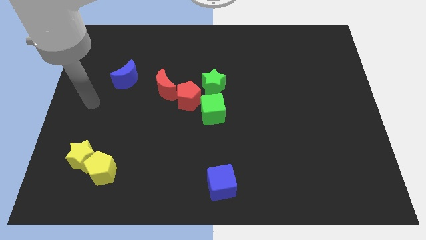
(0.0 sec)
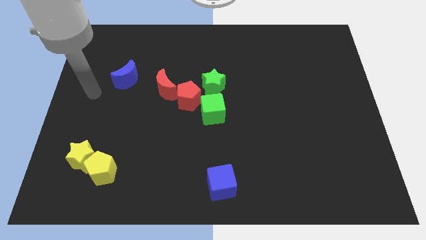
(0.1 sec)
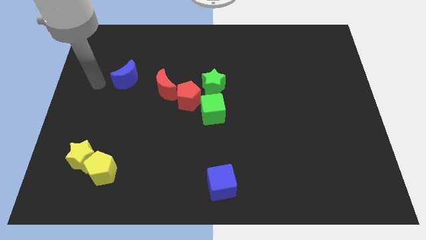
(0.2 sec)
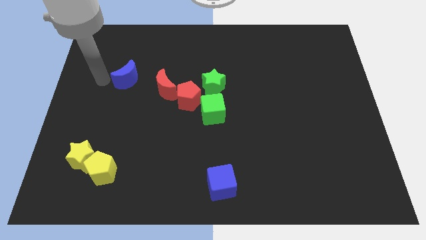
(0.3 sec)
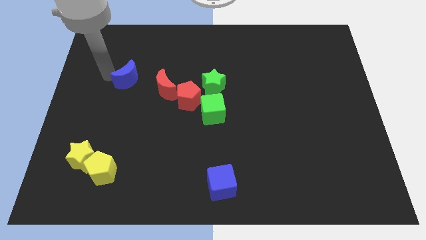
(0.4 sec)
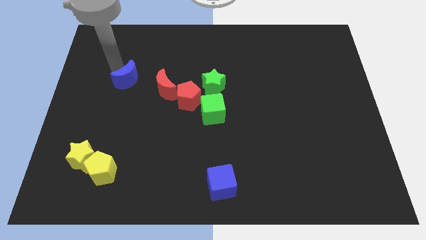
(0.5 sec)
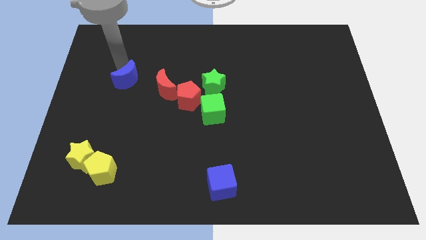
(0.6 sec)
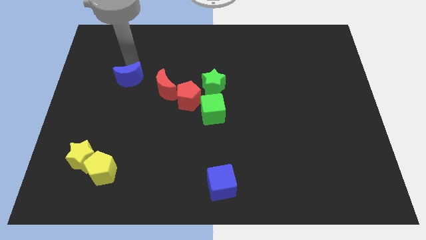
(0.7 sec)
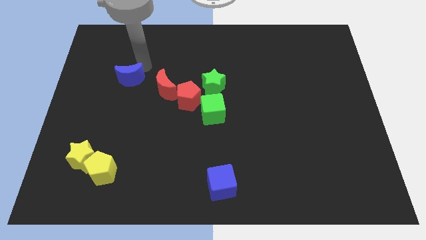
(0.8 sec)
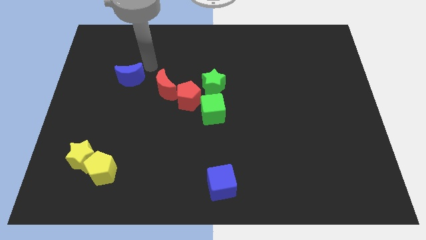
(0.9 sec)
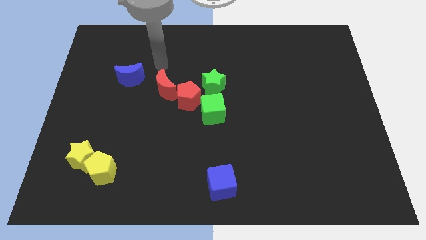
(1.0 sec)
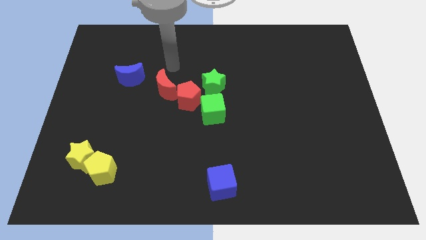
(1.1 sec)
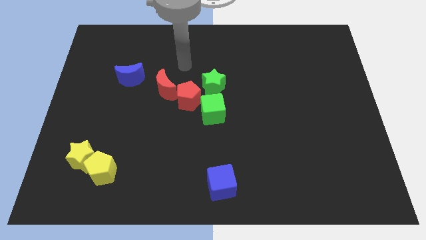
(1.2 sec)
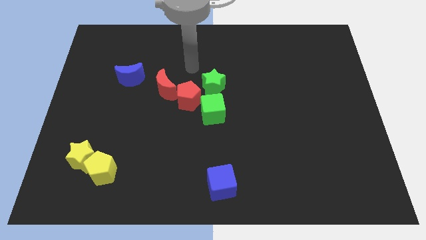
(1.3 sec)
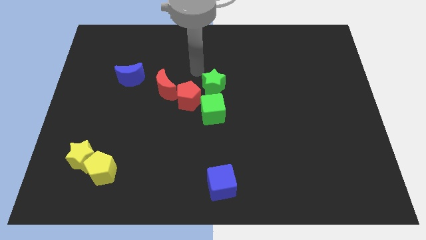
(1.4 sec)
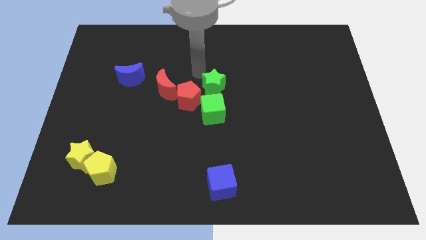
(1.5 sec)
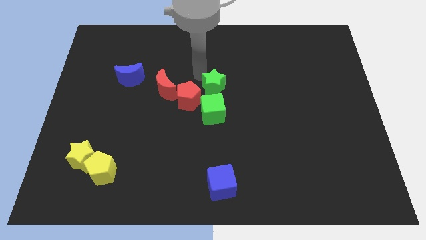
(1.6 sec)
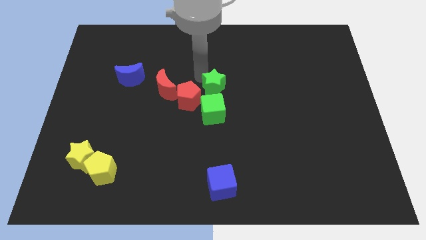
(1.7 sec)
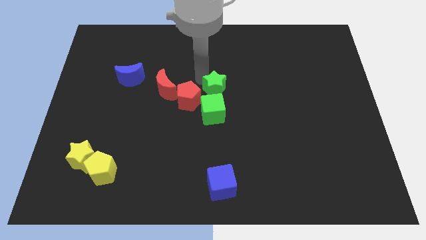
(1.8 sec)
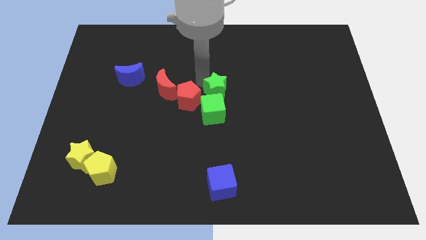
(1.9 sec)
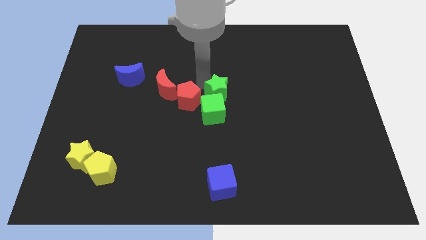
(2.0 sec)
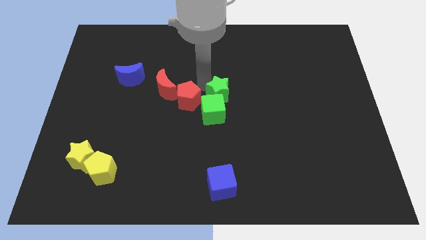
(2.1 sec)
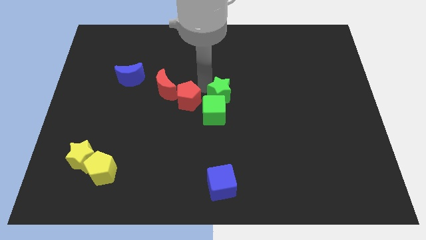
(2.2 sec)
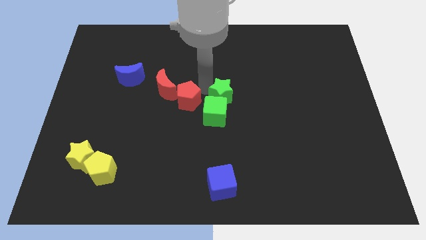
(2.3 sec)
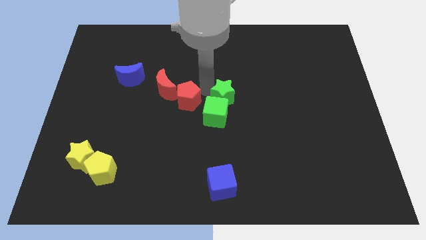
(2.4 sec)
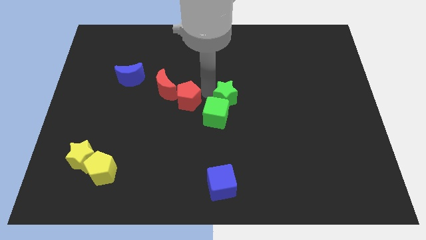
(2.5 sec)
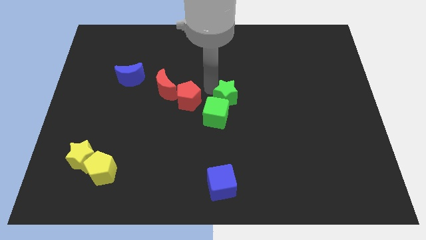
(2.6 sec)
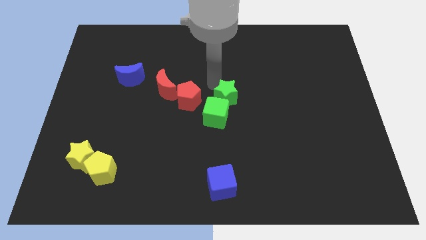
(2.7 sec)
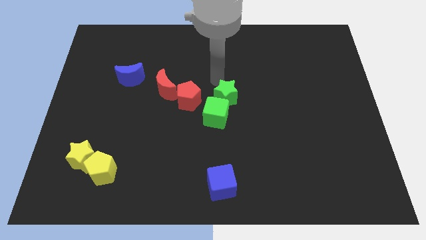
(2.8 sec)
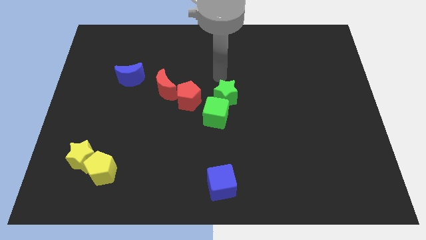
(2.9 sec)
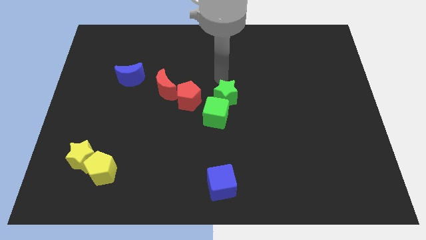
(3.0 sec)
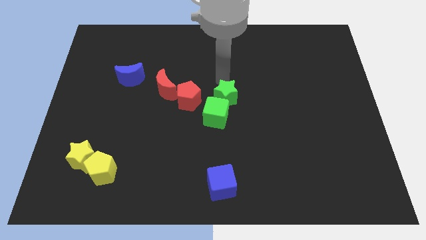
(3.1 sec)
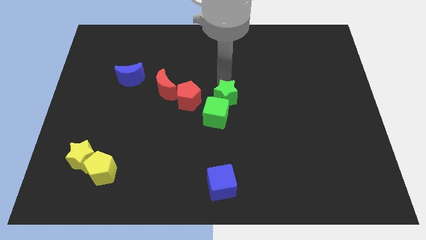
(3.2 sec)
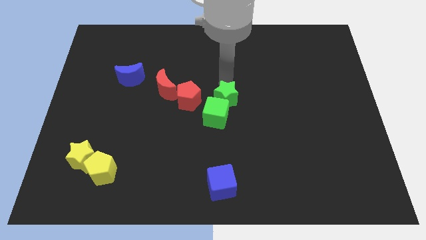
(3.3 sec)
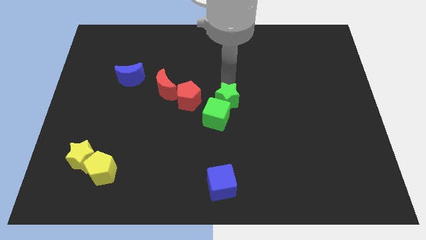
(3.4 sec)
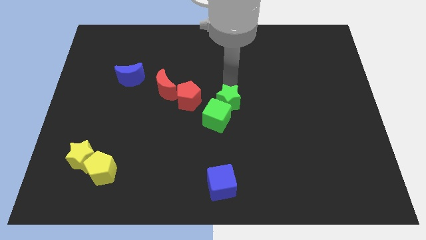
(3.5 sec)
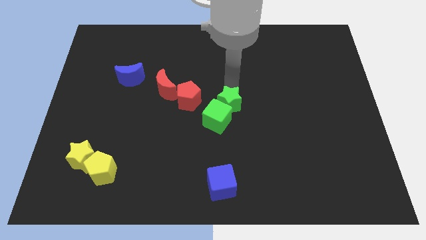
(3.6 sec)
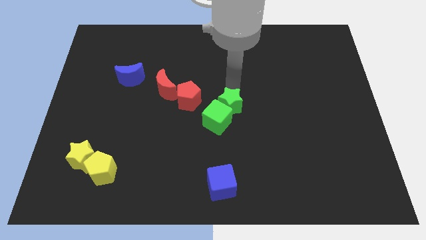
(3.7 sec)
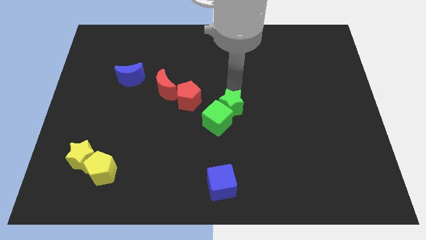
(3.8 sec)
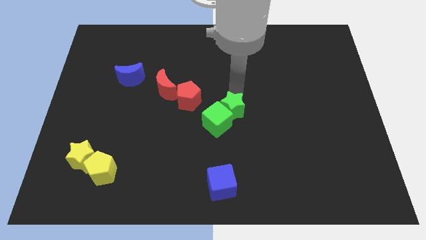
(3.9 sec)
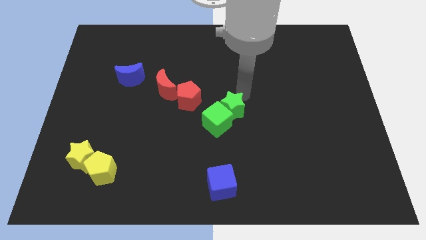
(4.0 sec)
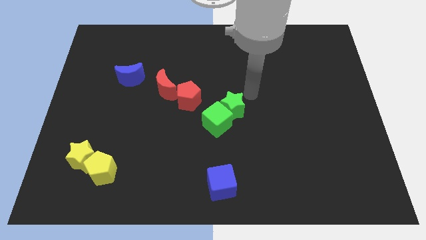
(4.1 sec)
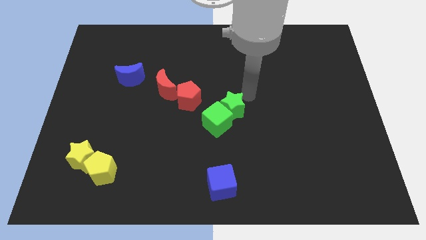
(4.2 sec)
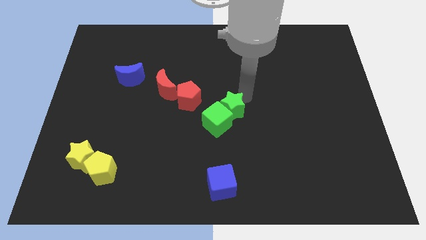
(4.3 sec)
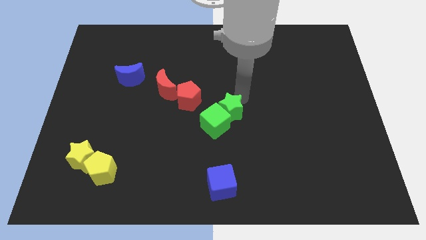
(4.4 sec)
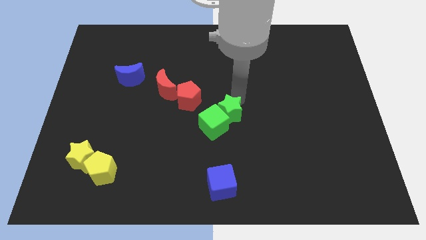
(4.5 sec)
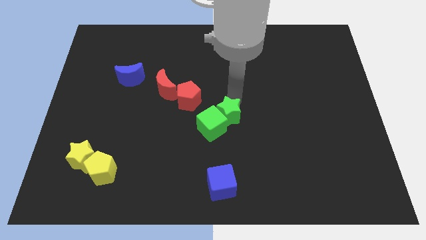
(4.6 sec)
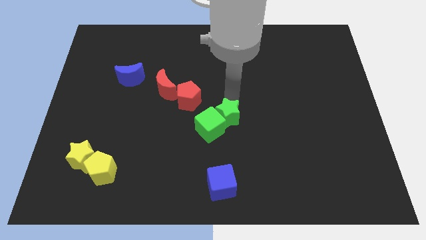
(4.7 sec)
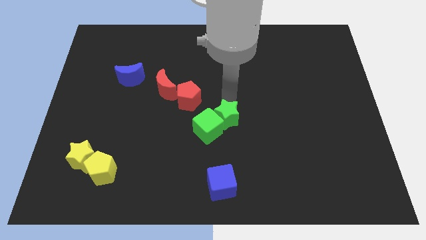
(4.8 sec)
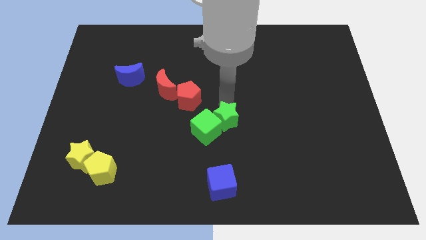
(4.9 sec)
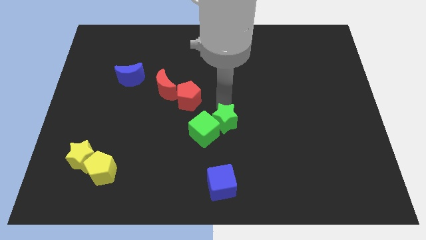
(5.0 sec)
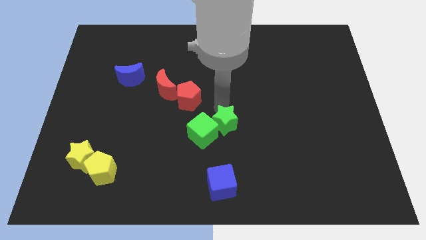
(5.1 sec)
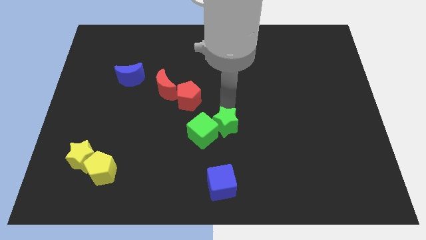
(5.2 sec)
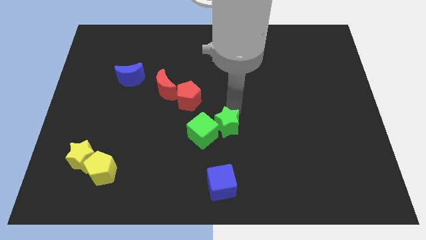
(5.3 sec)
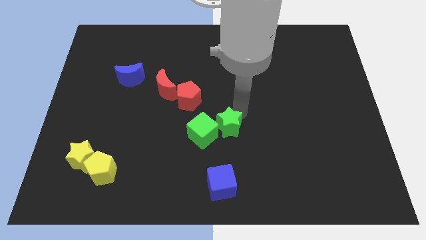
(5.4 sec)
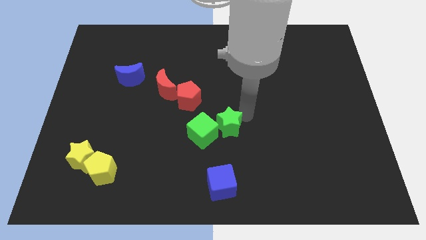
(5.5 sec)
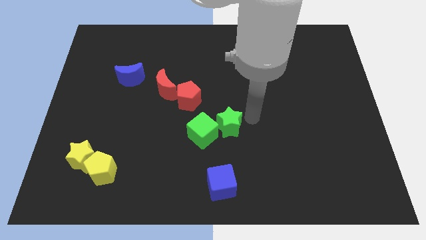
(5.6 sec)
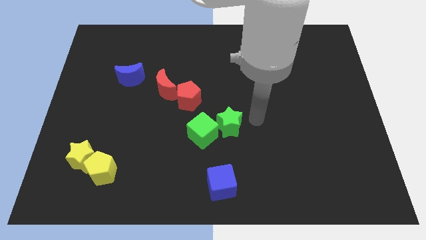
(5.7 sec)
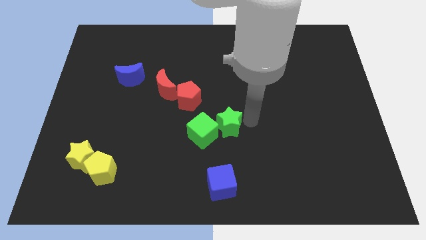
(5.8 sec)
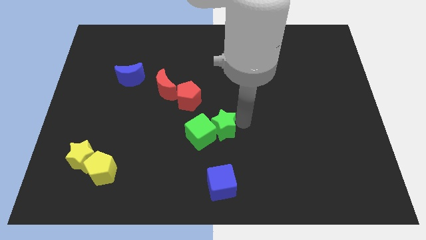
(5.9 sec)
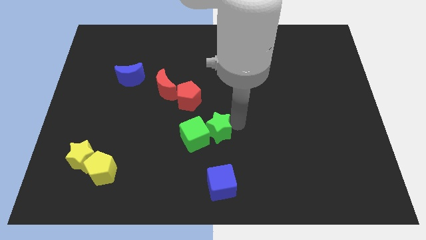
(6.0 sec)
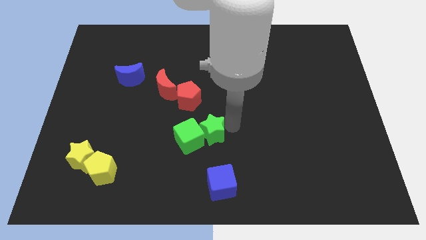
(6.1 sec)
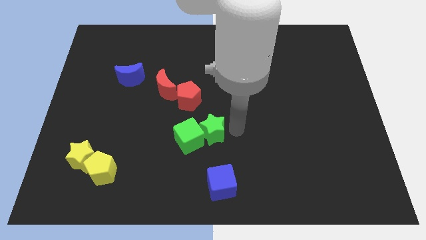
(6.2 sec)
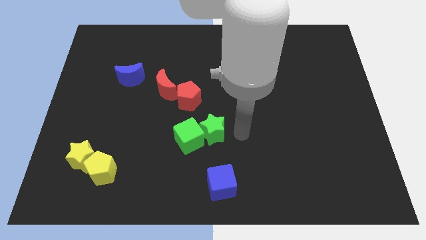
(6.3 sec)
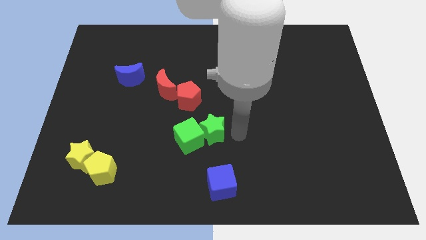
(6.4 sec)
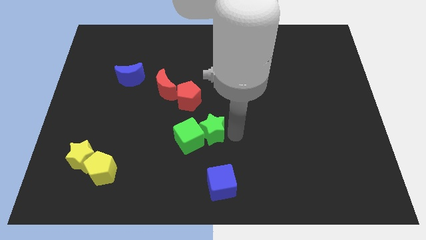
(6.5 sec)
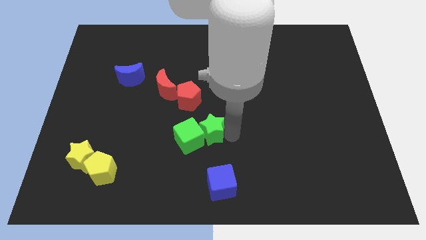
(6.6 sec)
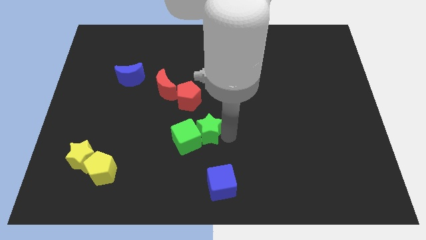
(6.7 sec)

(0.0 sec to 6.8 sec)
slightly move the green star diagonally downwards and to the left

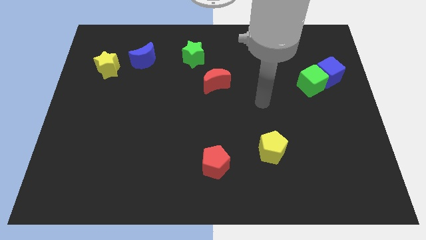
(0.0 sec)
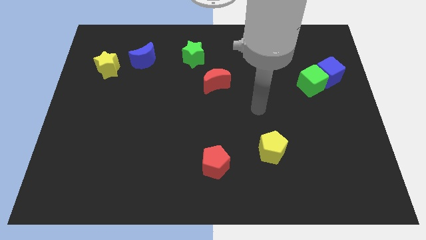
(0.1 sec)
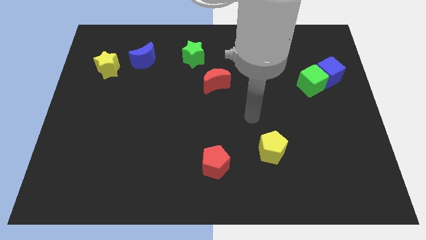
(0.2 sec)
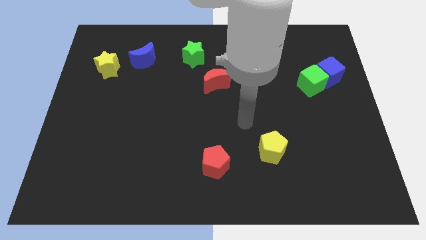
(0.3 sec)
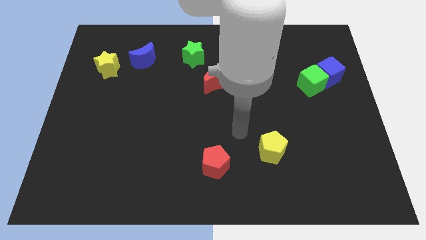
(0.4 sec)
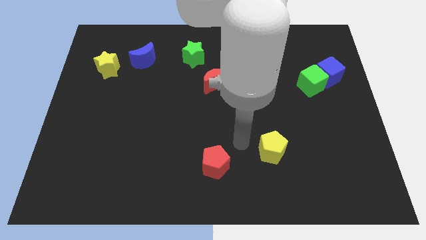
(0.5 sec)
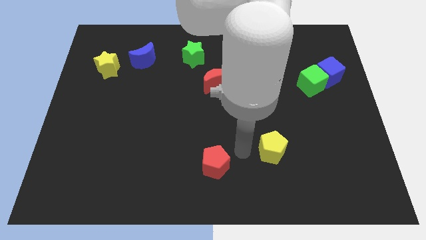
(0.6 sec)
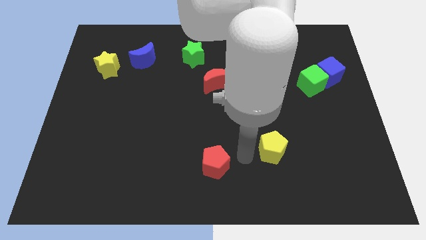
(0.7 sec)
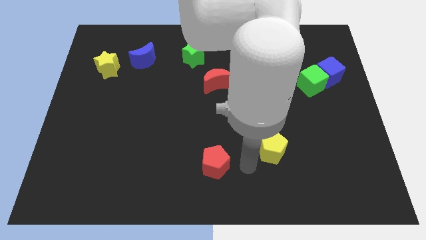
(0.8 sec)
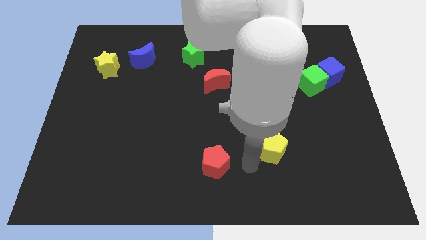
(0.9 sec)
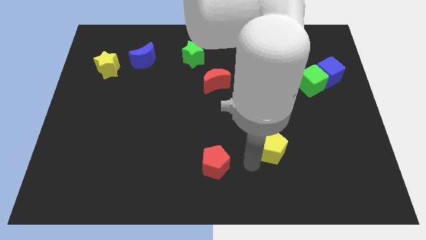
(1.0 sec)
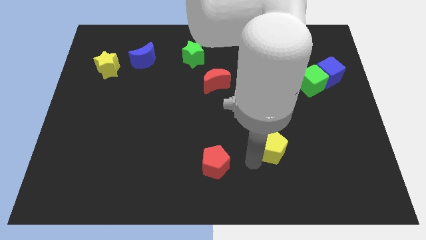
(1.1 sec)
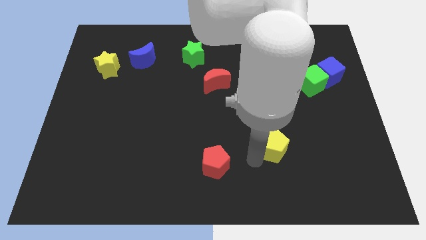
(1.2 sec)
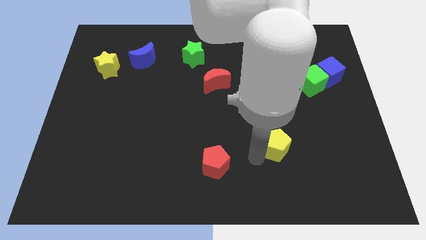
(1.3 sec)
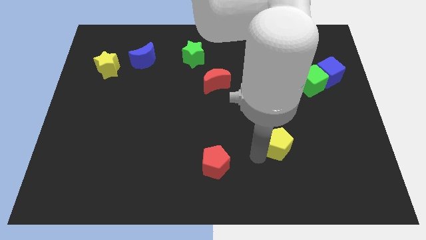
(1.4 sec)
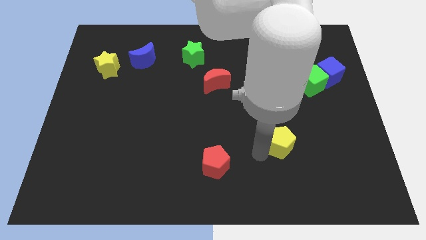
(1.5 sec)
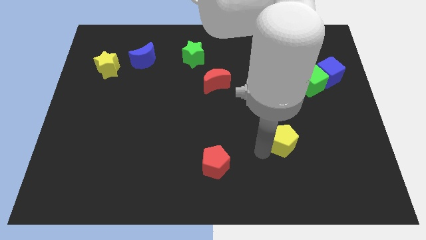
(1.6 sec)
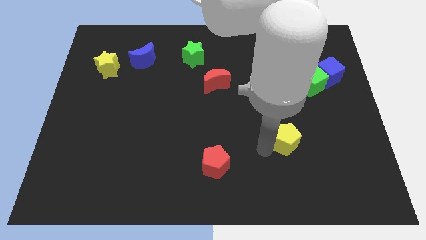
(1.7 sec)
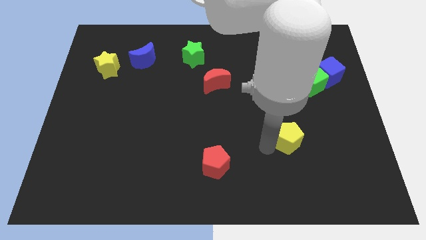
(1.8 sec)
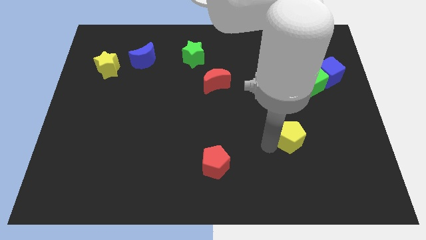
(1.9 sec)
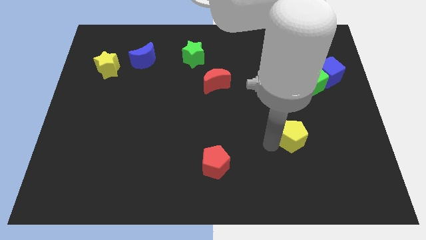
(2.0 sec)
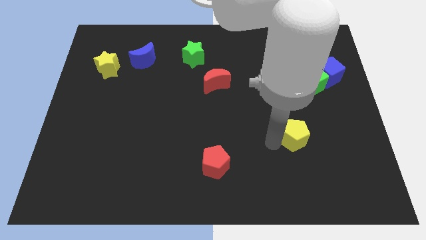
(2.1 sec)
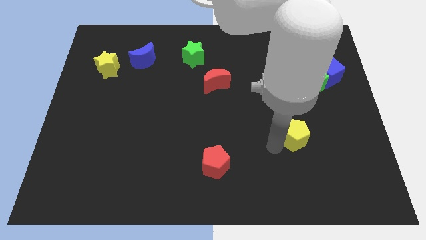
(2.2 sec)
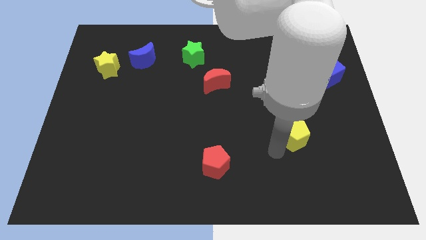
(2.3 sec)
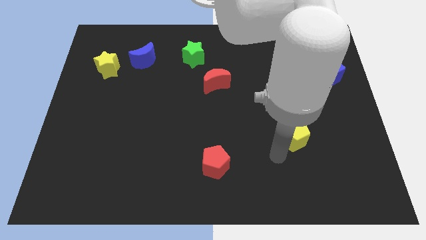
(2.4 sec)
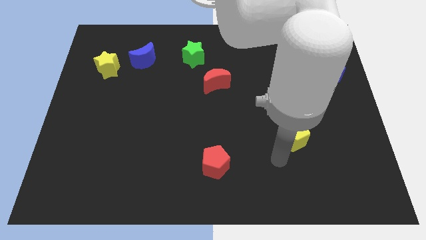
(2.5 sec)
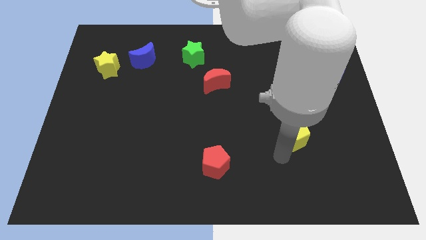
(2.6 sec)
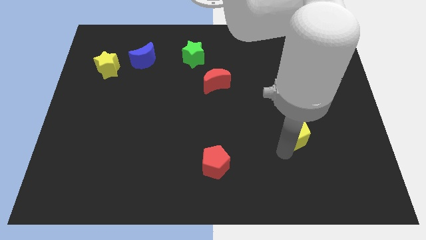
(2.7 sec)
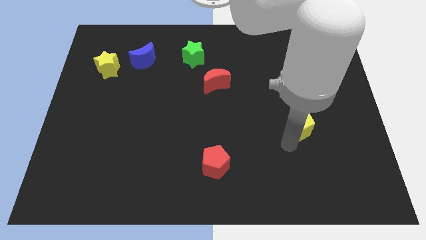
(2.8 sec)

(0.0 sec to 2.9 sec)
slide the yellow pentagon a little bit diagonally upwards and to the right
